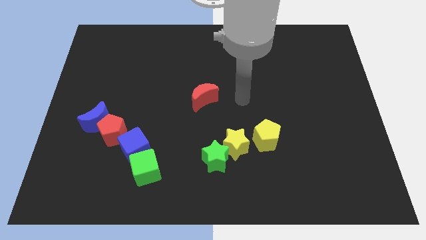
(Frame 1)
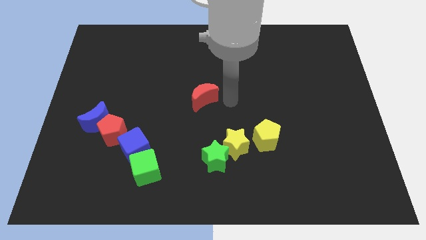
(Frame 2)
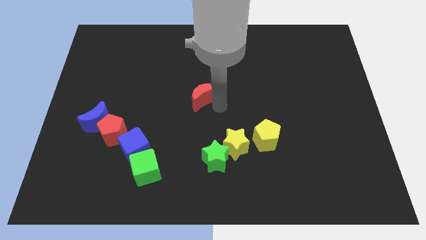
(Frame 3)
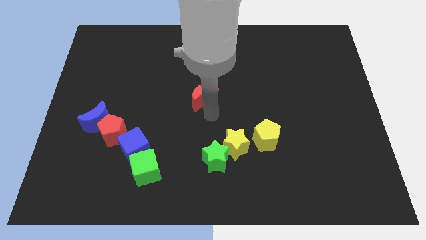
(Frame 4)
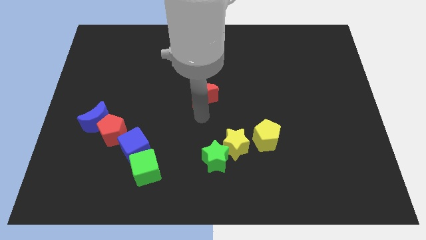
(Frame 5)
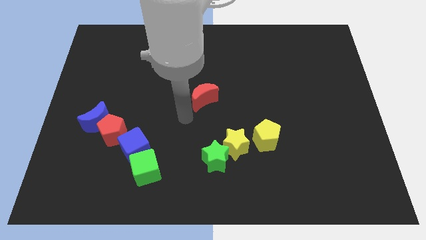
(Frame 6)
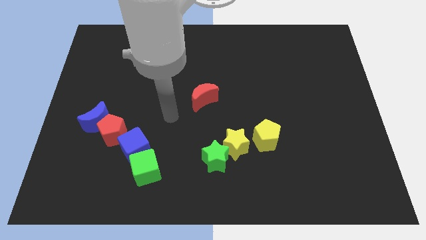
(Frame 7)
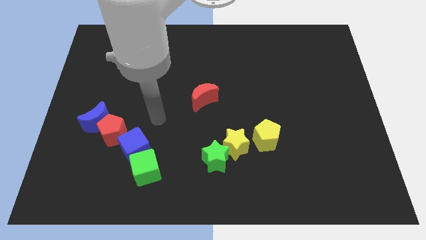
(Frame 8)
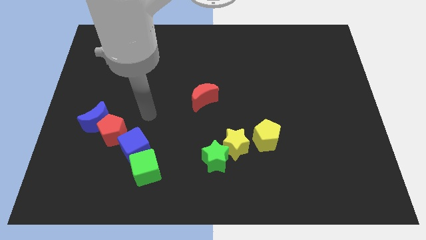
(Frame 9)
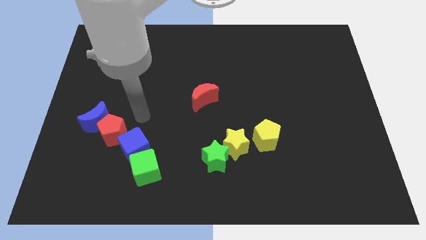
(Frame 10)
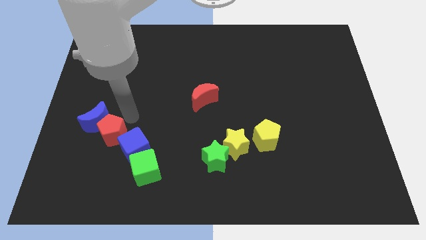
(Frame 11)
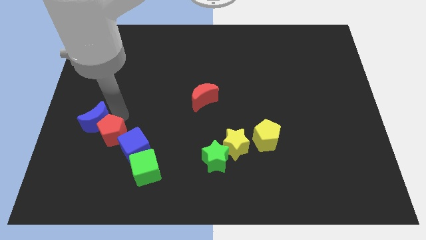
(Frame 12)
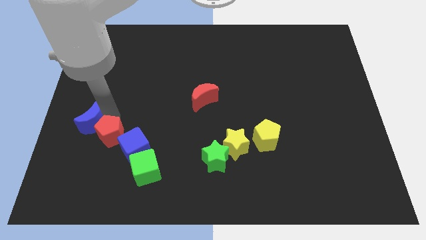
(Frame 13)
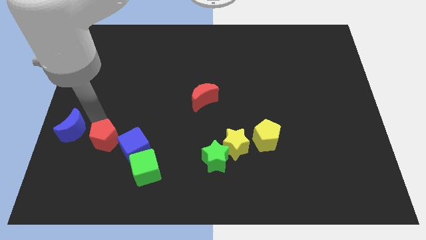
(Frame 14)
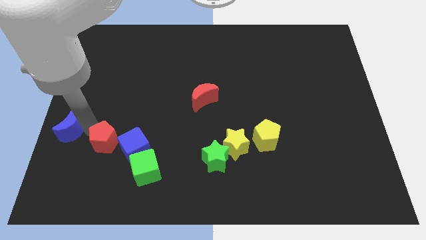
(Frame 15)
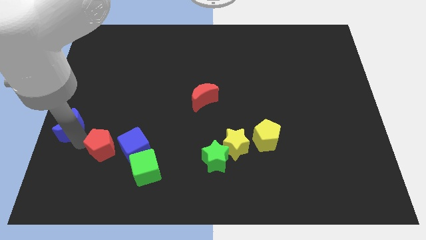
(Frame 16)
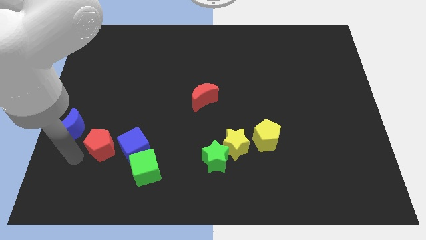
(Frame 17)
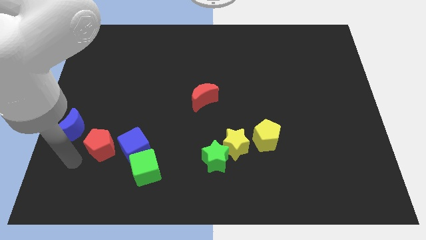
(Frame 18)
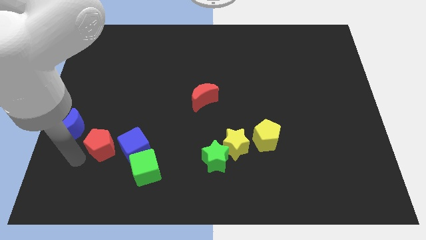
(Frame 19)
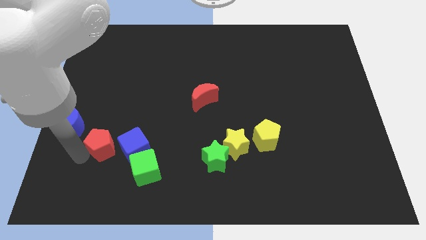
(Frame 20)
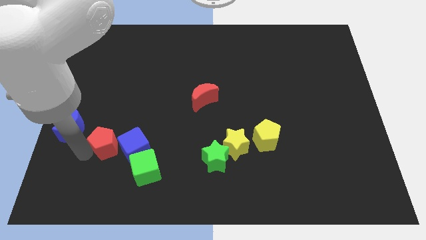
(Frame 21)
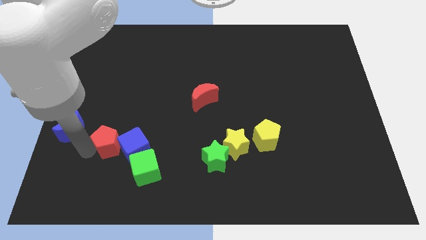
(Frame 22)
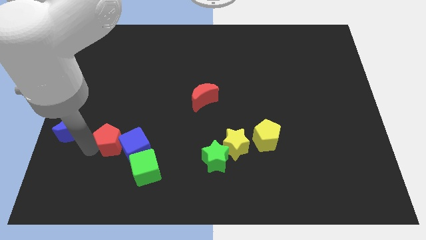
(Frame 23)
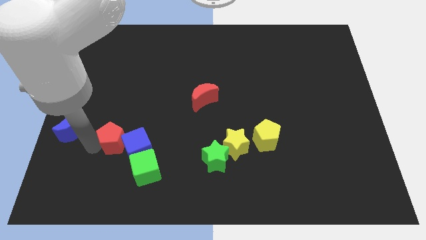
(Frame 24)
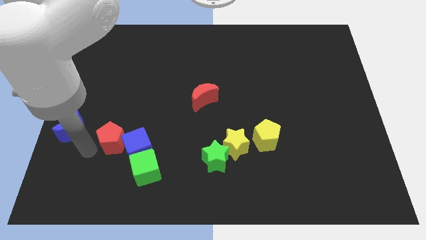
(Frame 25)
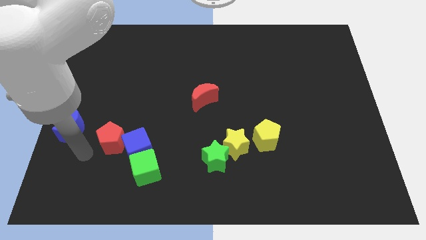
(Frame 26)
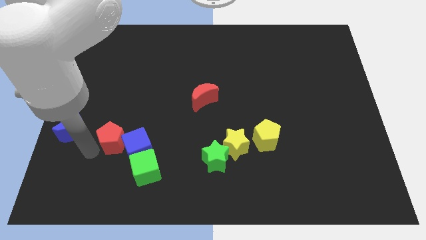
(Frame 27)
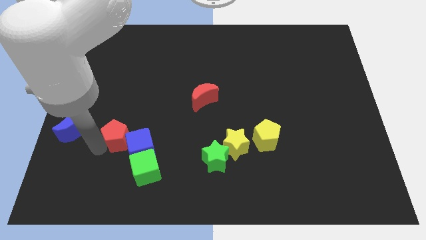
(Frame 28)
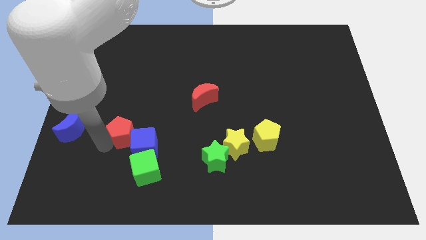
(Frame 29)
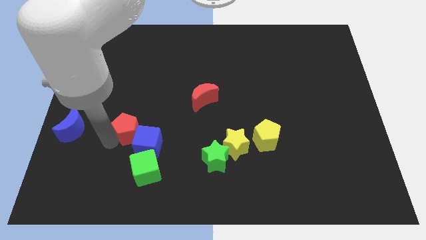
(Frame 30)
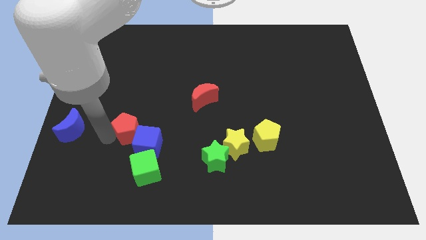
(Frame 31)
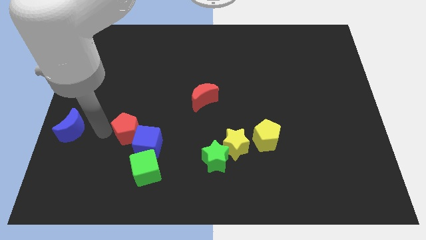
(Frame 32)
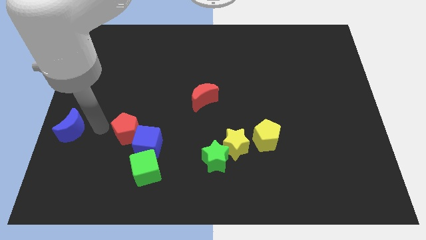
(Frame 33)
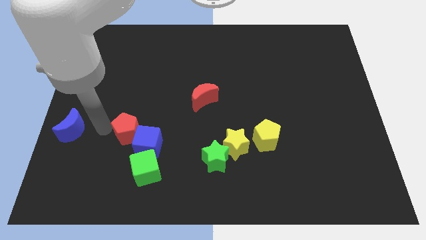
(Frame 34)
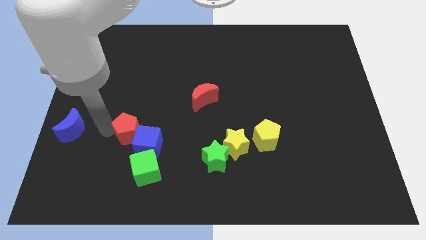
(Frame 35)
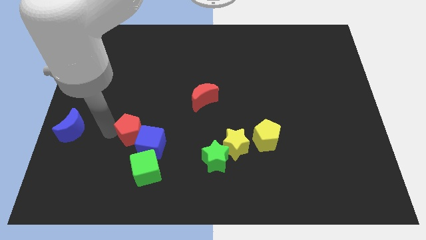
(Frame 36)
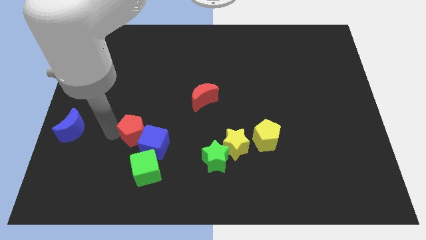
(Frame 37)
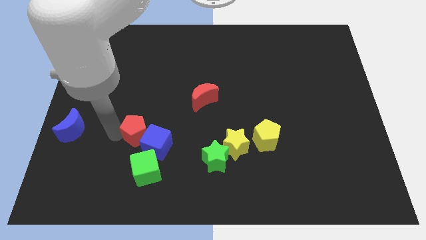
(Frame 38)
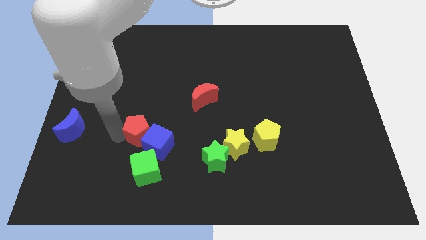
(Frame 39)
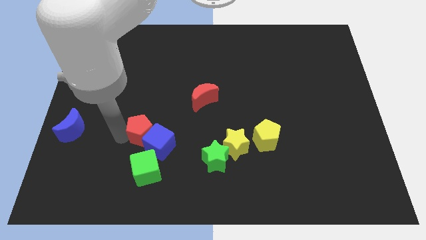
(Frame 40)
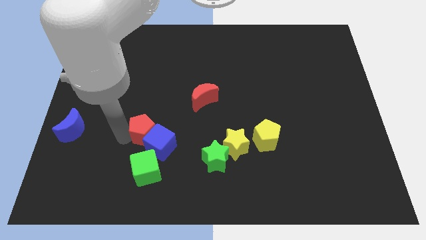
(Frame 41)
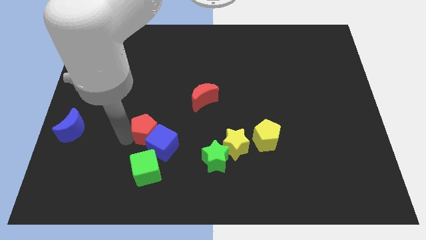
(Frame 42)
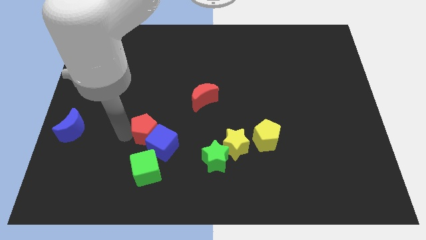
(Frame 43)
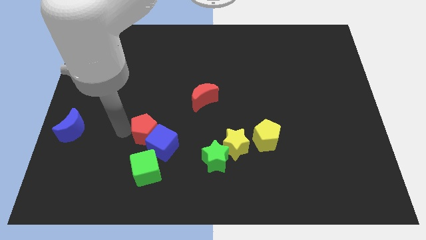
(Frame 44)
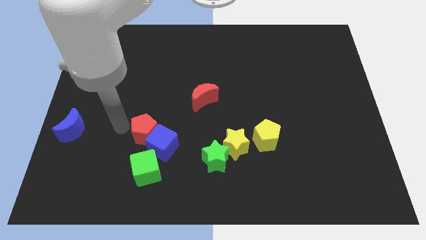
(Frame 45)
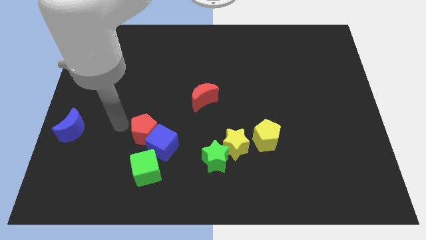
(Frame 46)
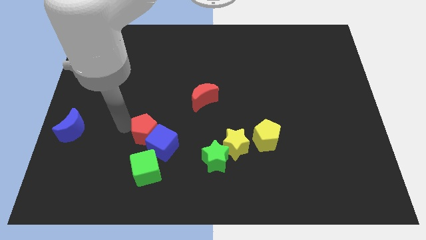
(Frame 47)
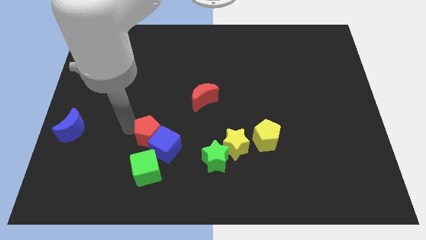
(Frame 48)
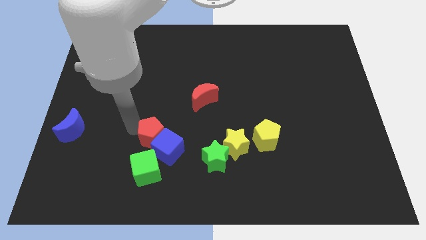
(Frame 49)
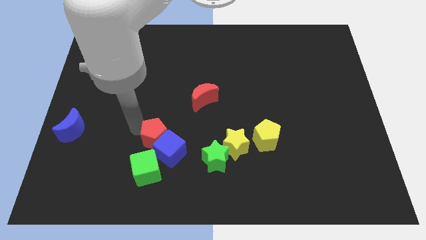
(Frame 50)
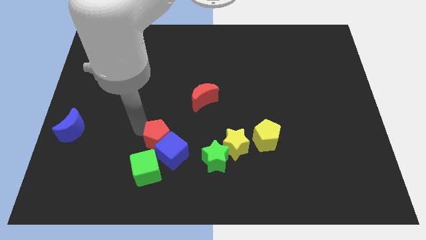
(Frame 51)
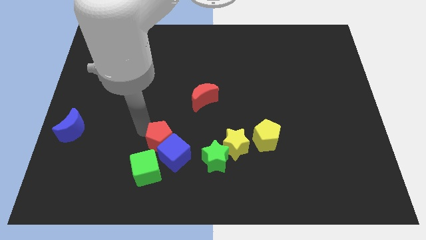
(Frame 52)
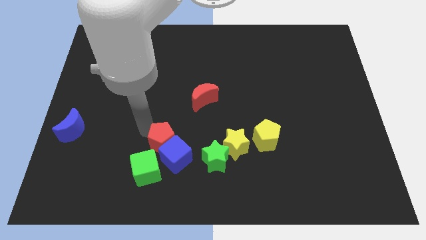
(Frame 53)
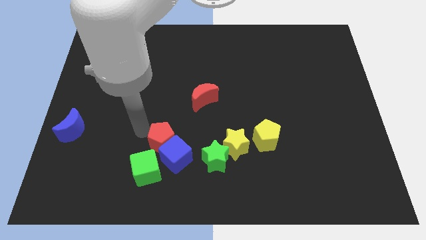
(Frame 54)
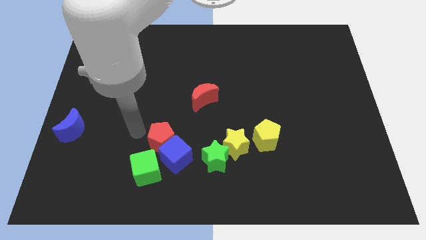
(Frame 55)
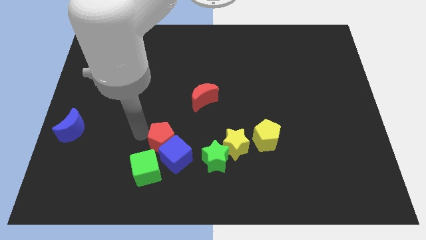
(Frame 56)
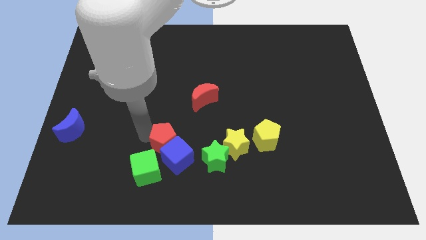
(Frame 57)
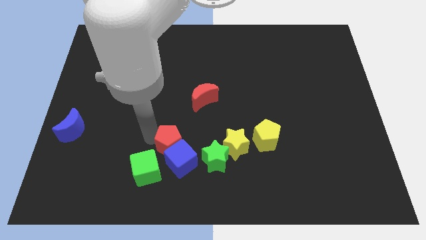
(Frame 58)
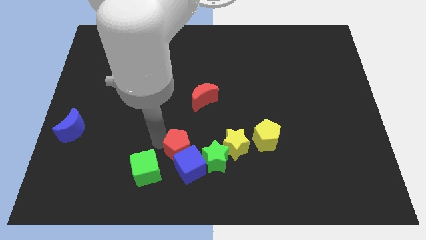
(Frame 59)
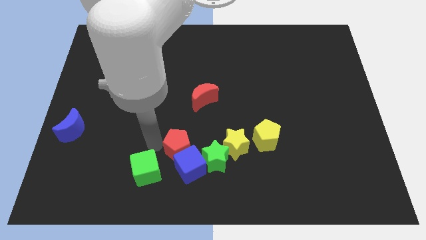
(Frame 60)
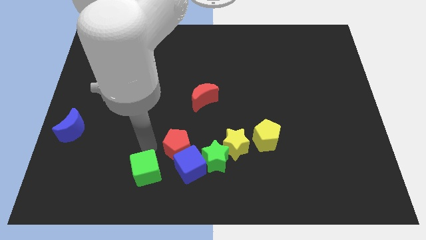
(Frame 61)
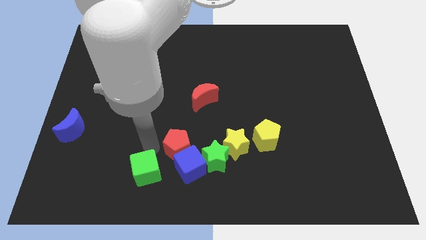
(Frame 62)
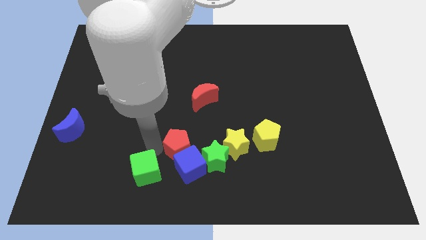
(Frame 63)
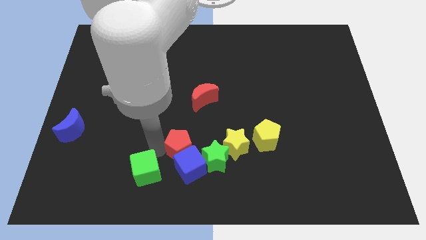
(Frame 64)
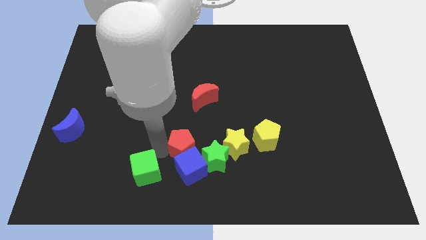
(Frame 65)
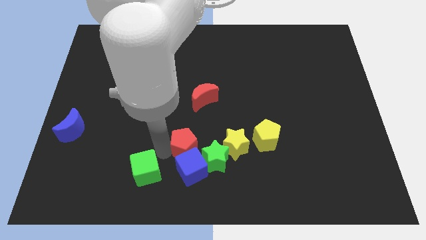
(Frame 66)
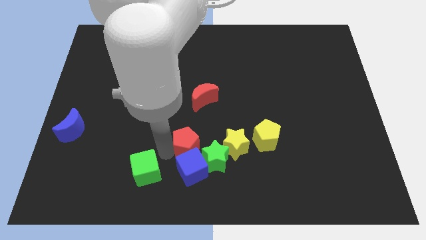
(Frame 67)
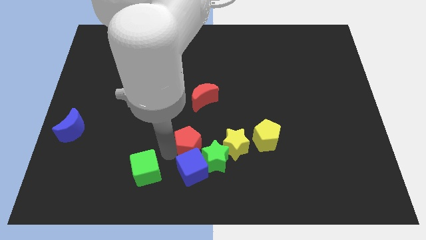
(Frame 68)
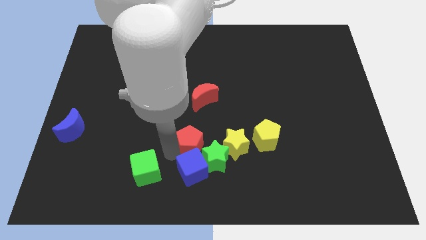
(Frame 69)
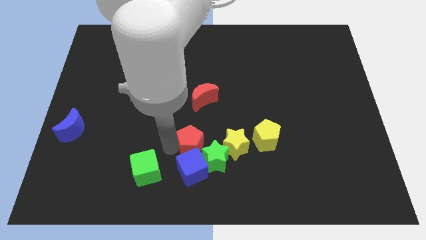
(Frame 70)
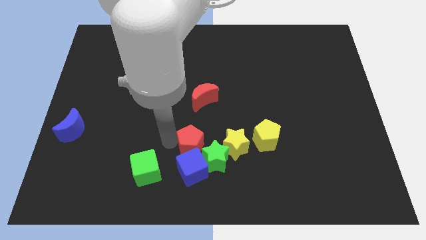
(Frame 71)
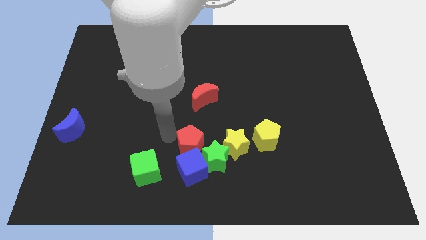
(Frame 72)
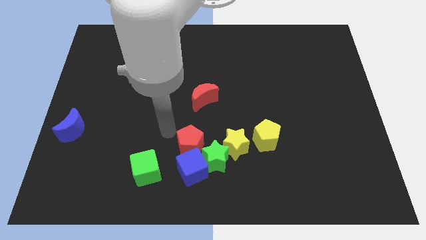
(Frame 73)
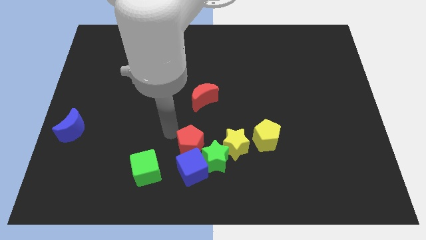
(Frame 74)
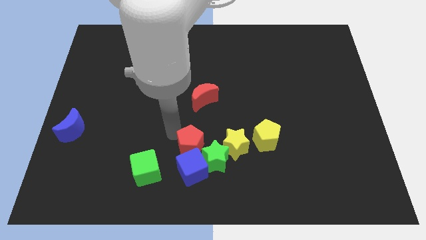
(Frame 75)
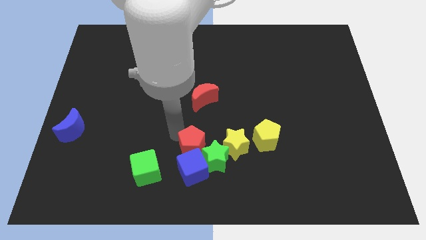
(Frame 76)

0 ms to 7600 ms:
put the red pentagon towards the green star
